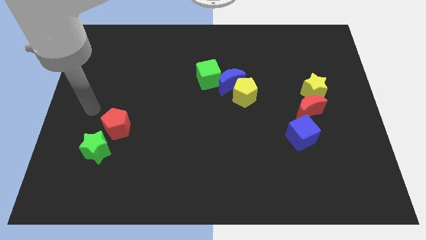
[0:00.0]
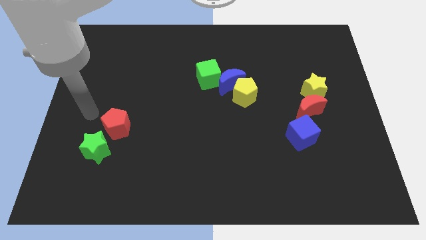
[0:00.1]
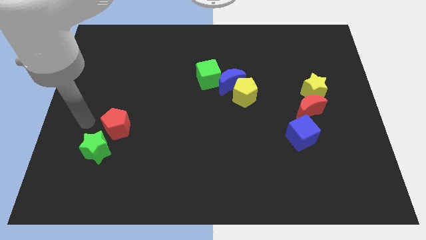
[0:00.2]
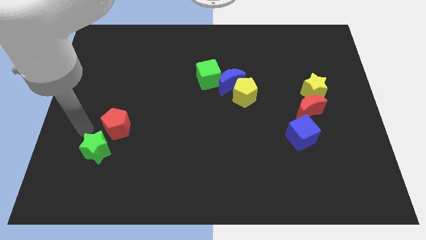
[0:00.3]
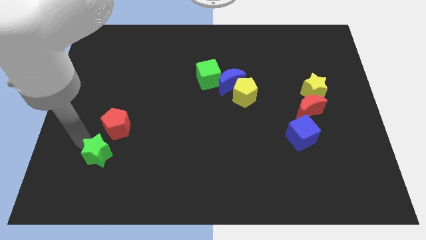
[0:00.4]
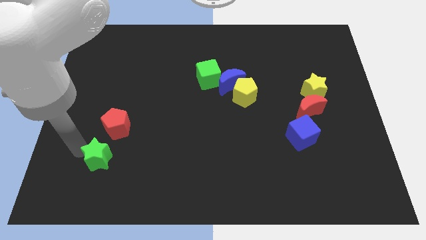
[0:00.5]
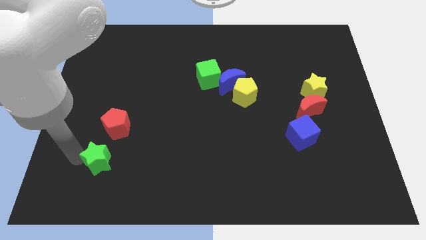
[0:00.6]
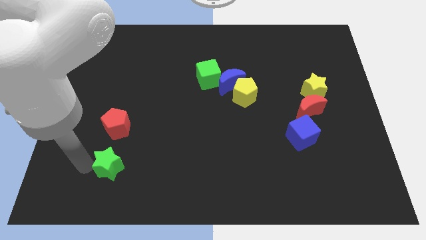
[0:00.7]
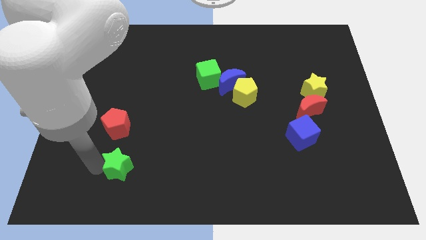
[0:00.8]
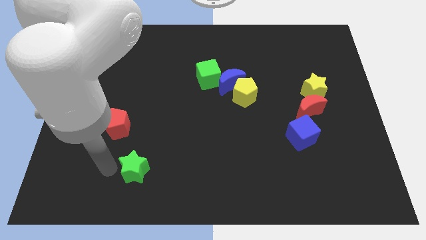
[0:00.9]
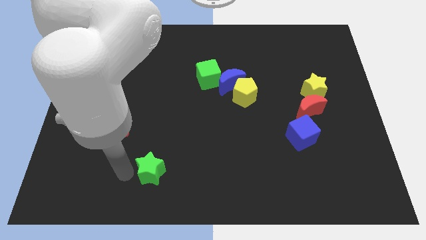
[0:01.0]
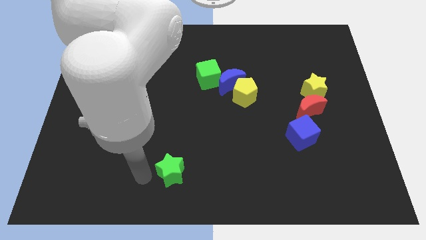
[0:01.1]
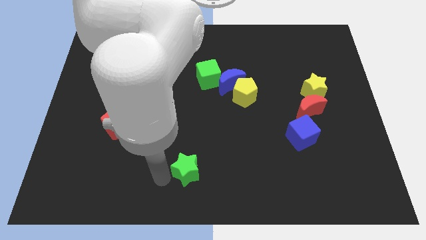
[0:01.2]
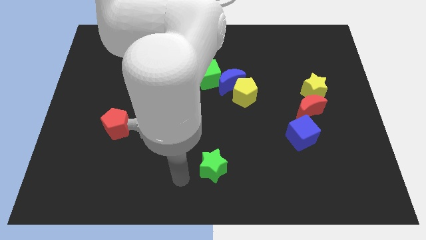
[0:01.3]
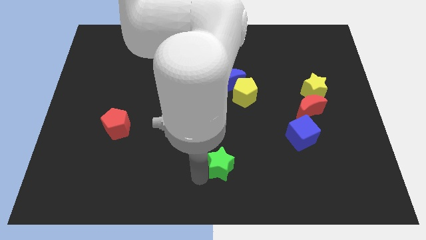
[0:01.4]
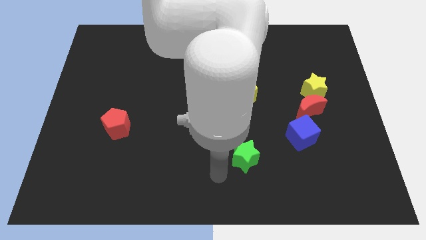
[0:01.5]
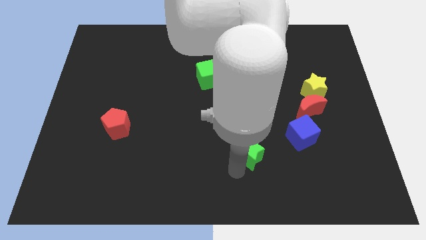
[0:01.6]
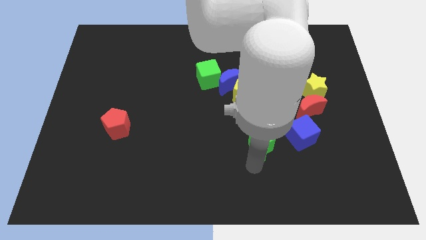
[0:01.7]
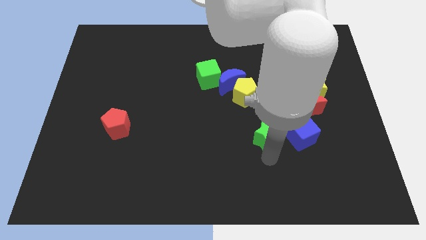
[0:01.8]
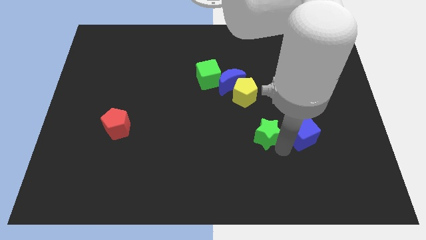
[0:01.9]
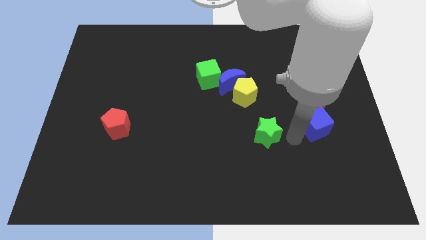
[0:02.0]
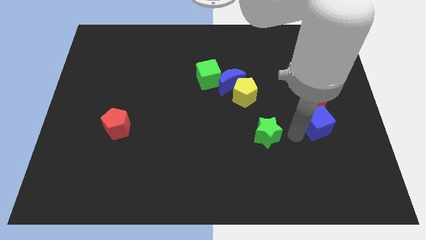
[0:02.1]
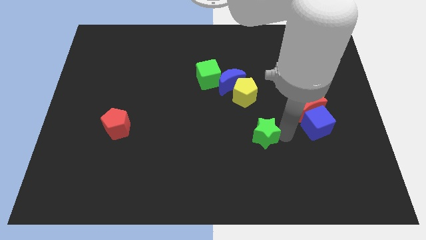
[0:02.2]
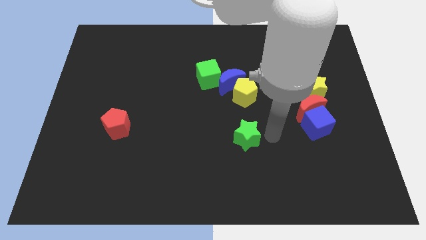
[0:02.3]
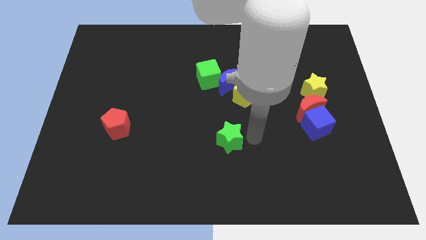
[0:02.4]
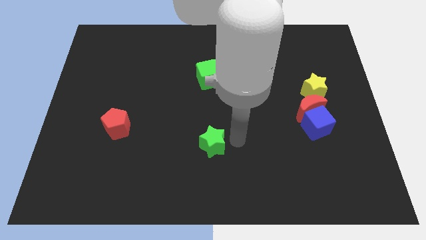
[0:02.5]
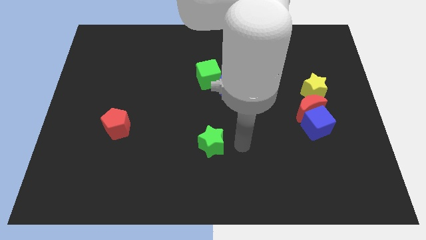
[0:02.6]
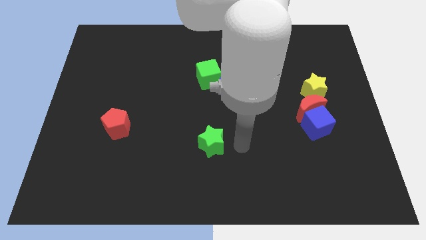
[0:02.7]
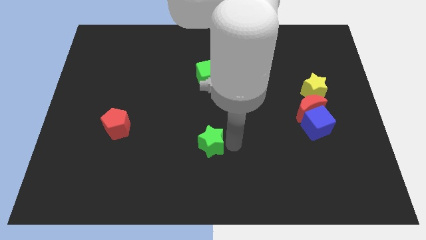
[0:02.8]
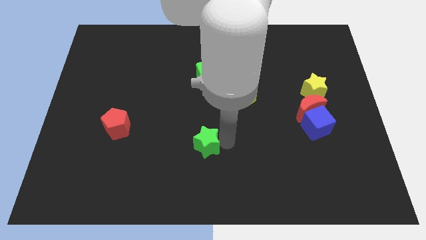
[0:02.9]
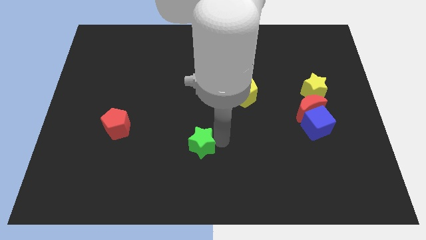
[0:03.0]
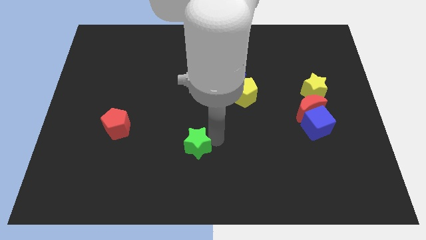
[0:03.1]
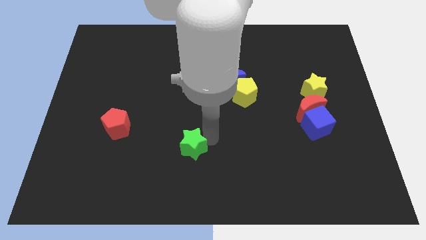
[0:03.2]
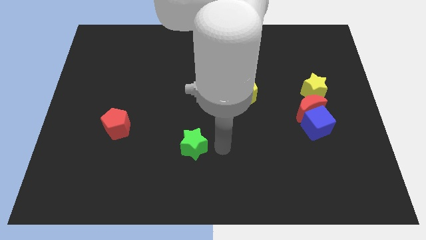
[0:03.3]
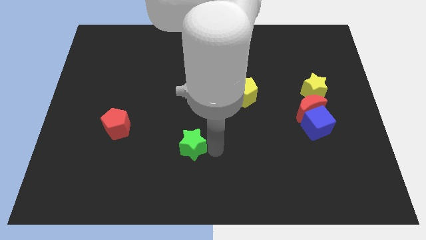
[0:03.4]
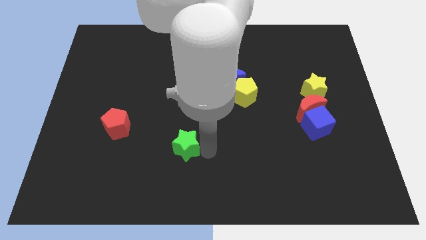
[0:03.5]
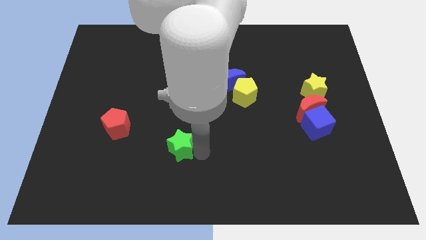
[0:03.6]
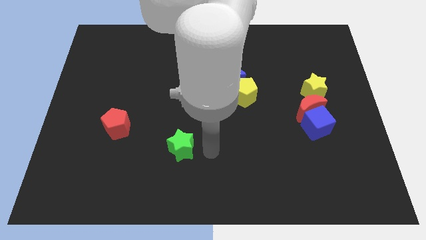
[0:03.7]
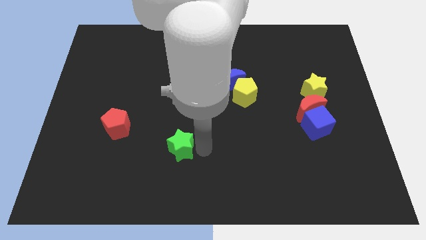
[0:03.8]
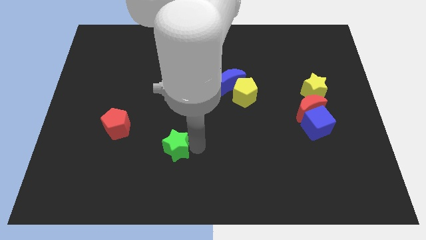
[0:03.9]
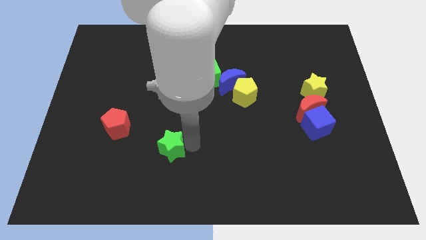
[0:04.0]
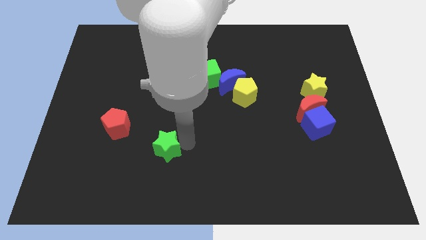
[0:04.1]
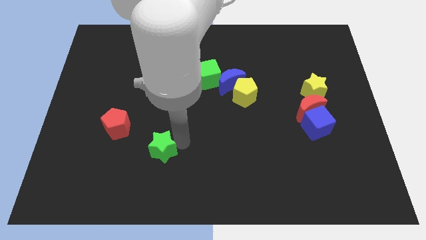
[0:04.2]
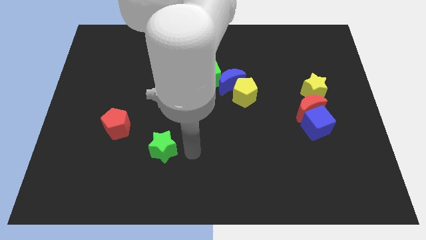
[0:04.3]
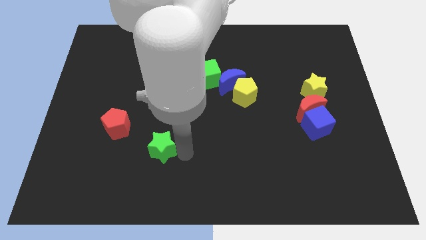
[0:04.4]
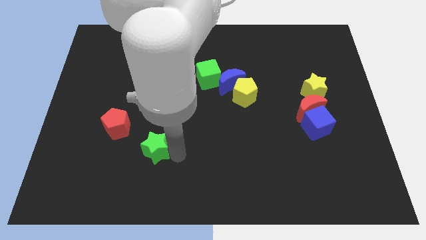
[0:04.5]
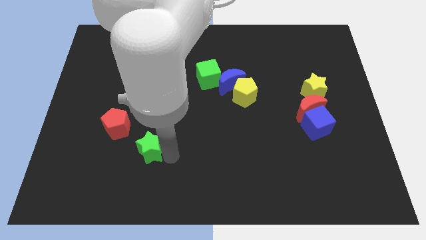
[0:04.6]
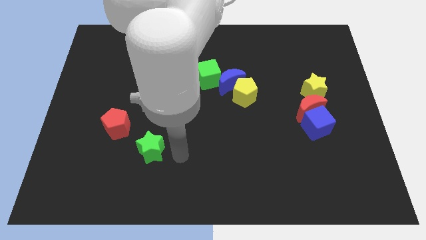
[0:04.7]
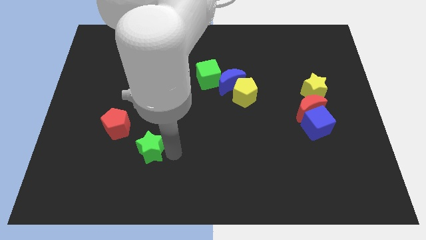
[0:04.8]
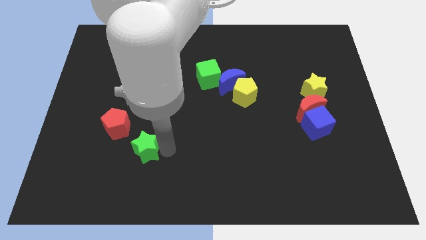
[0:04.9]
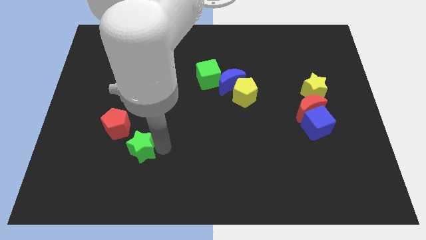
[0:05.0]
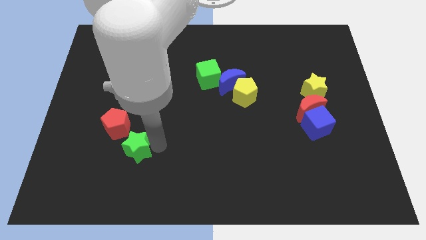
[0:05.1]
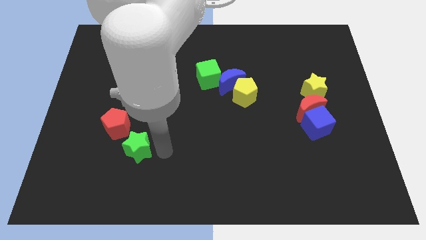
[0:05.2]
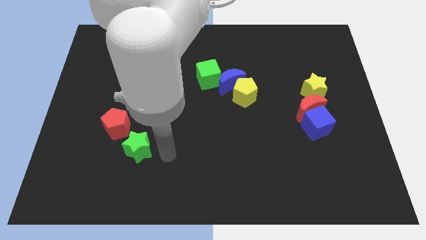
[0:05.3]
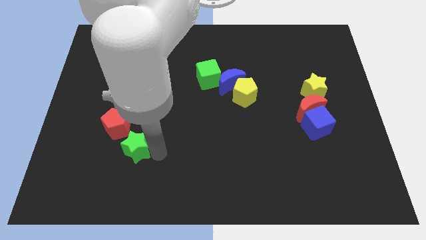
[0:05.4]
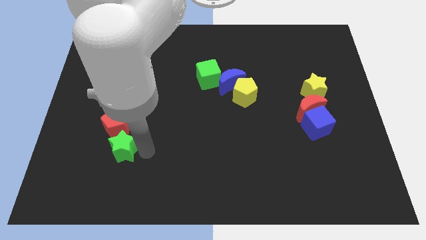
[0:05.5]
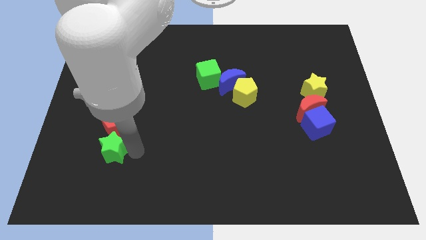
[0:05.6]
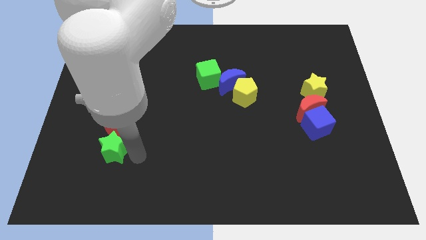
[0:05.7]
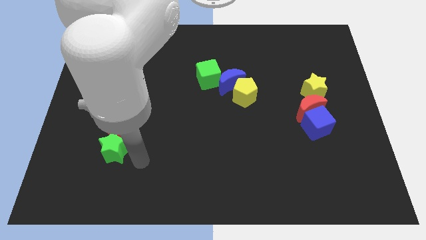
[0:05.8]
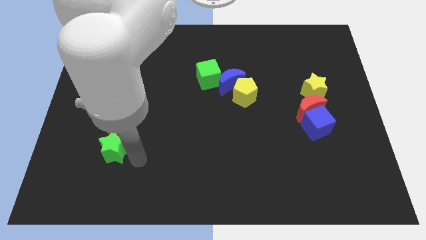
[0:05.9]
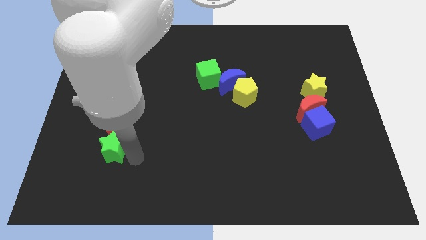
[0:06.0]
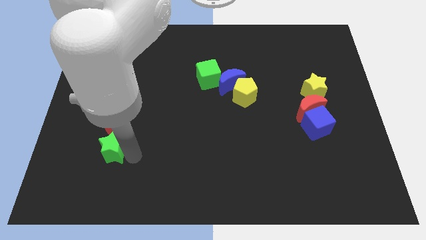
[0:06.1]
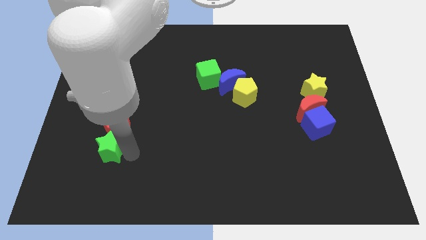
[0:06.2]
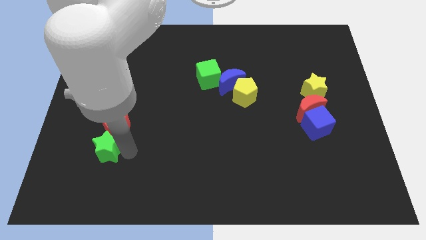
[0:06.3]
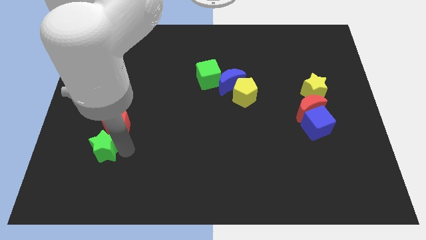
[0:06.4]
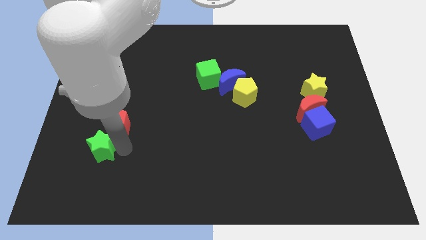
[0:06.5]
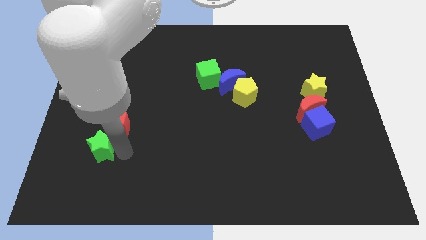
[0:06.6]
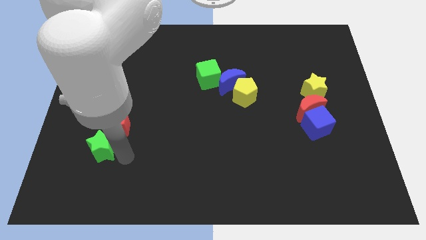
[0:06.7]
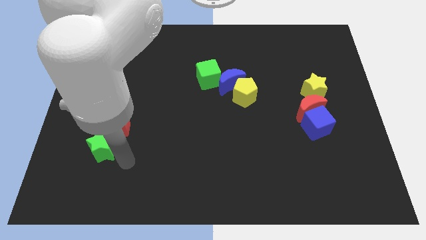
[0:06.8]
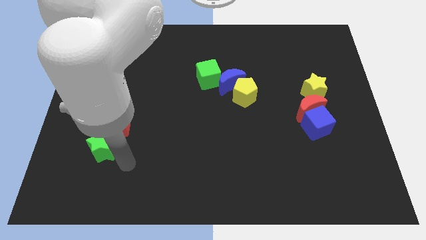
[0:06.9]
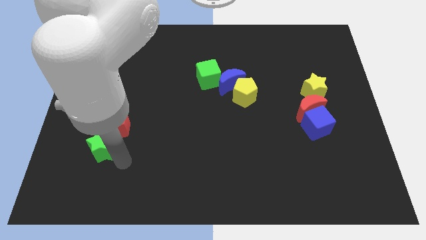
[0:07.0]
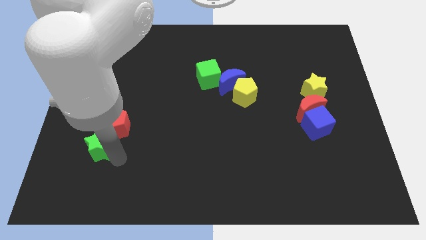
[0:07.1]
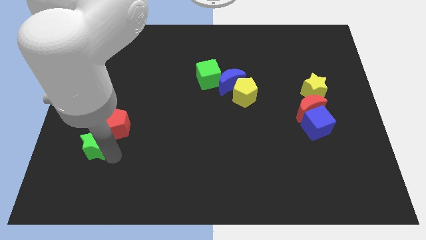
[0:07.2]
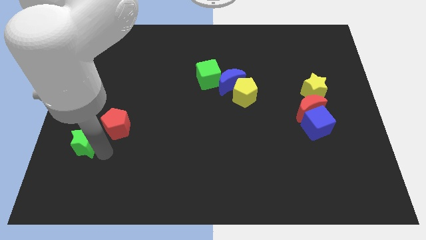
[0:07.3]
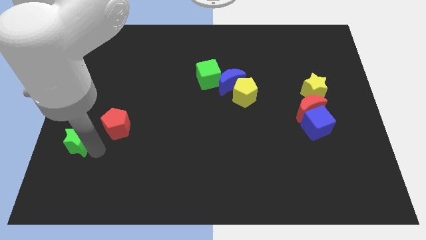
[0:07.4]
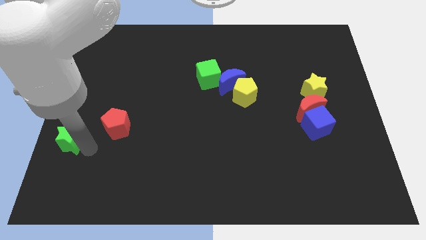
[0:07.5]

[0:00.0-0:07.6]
move the green star to the left side
